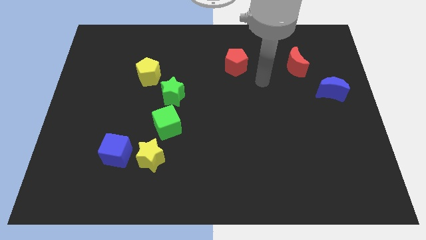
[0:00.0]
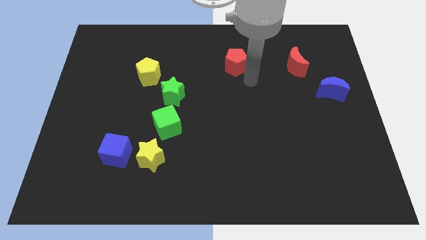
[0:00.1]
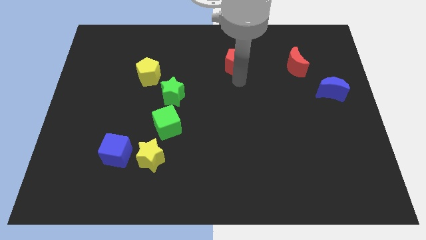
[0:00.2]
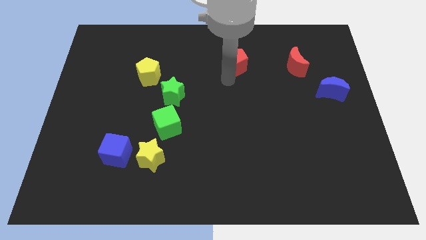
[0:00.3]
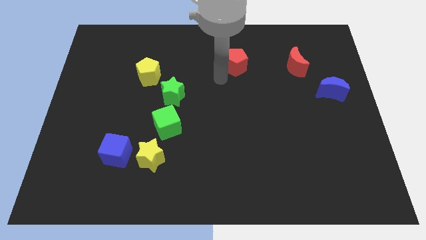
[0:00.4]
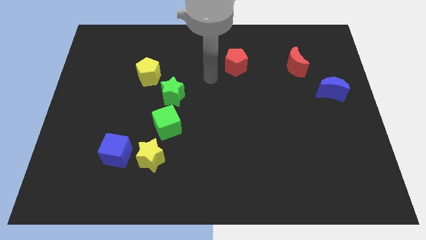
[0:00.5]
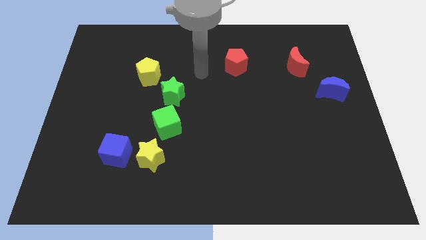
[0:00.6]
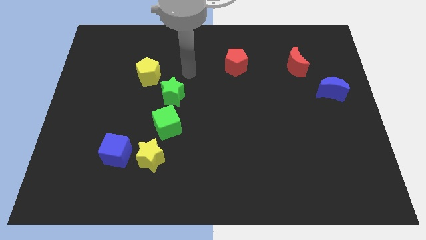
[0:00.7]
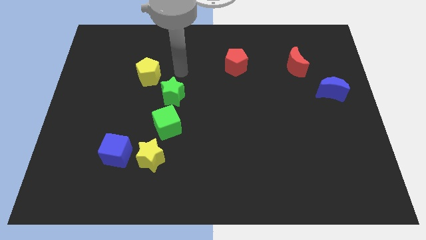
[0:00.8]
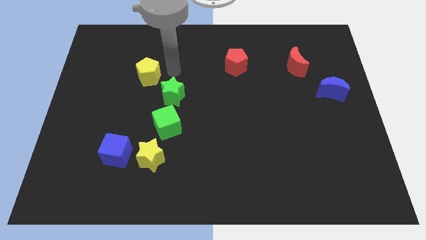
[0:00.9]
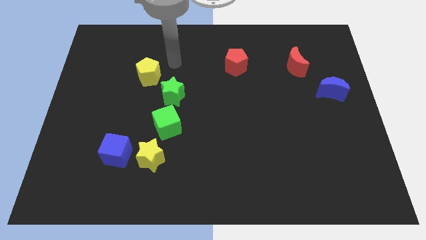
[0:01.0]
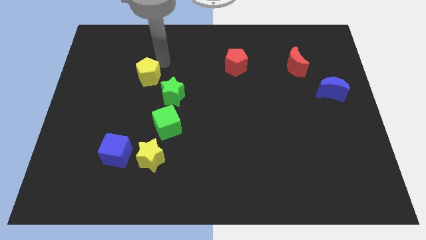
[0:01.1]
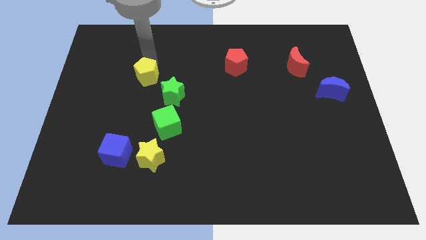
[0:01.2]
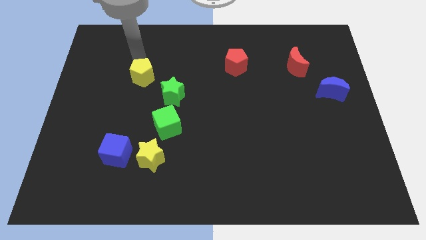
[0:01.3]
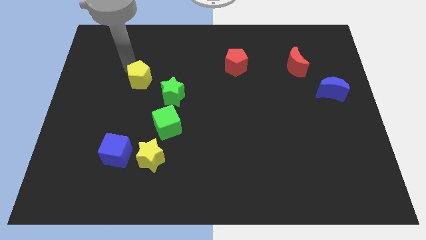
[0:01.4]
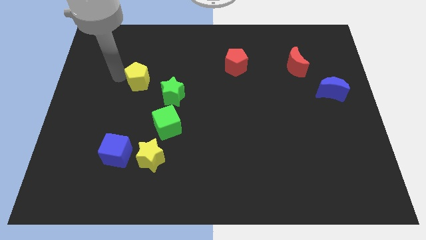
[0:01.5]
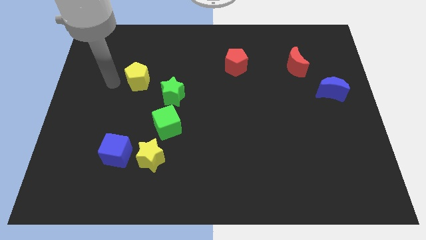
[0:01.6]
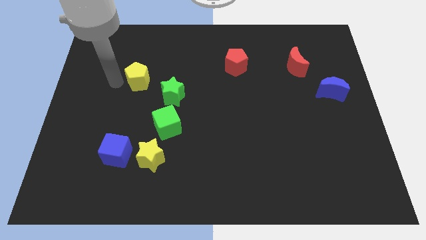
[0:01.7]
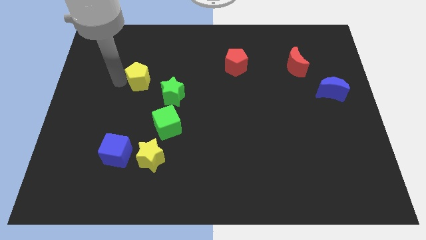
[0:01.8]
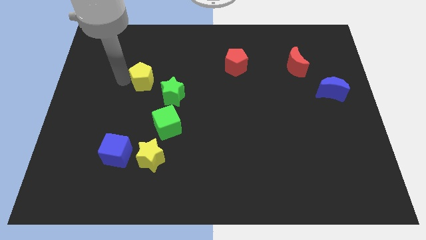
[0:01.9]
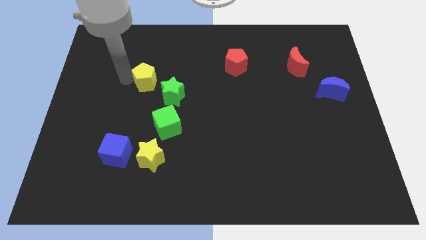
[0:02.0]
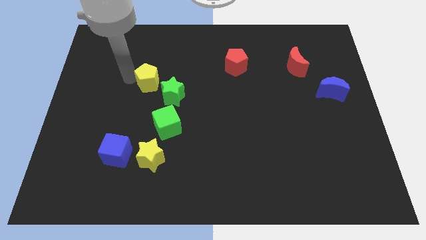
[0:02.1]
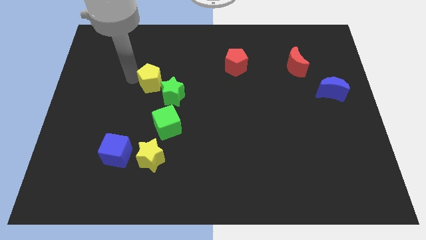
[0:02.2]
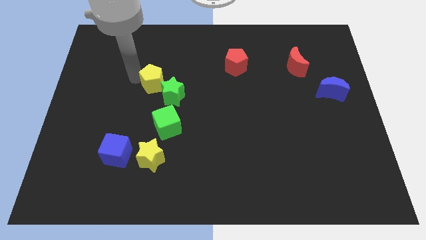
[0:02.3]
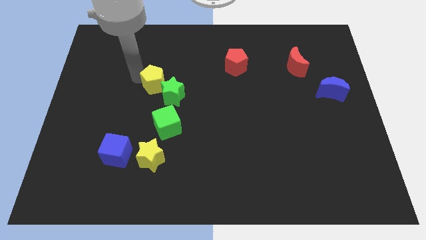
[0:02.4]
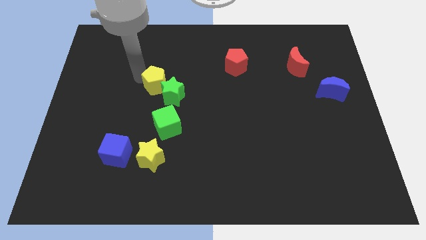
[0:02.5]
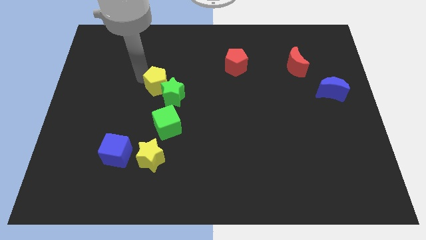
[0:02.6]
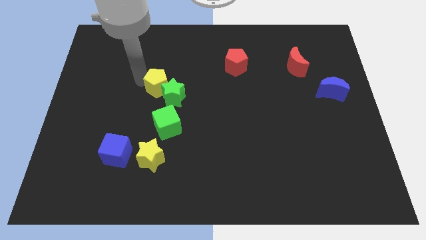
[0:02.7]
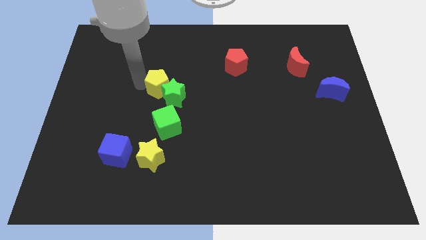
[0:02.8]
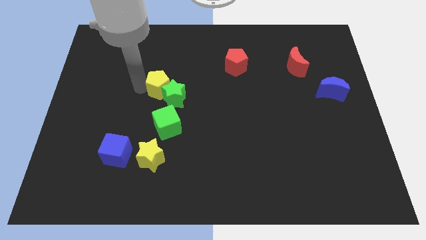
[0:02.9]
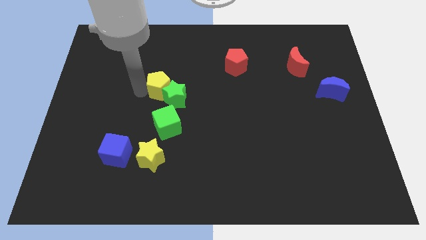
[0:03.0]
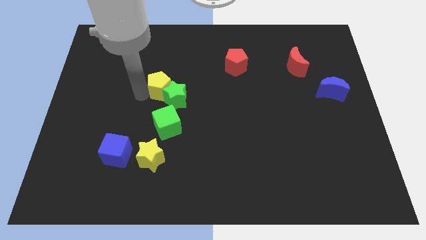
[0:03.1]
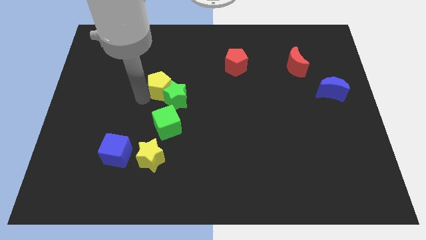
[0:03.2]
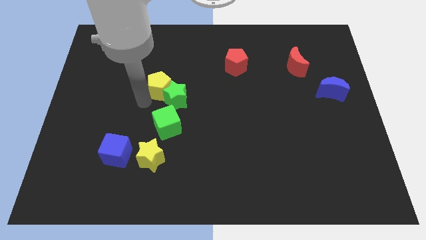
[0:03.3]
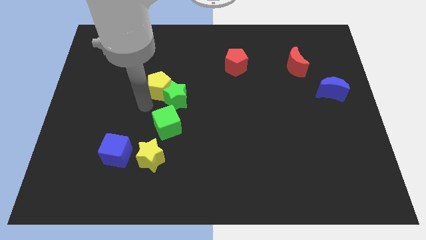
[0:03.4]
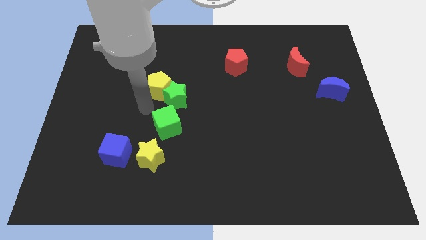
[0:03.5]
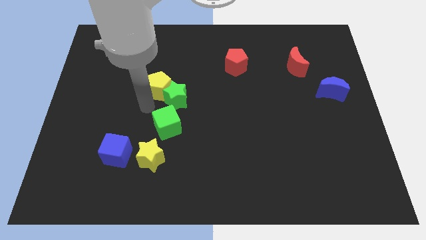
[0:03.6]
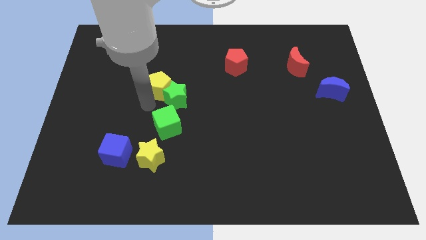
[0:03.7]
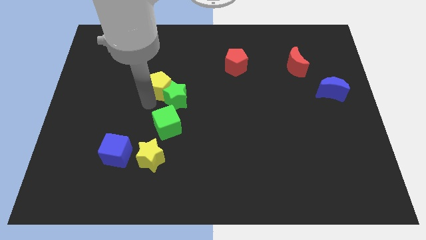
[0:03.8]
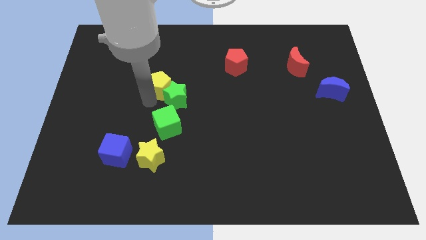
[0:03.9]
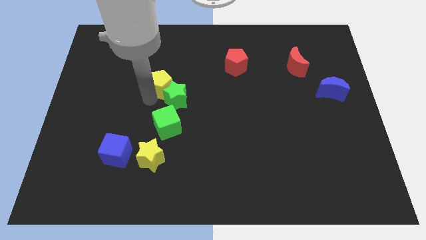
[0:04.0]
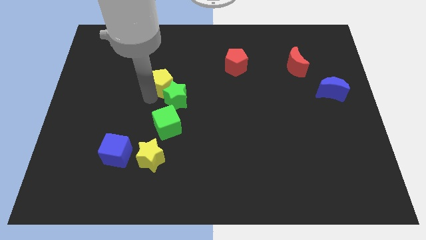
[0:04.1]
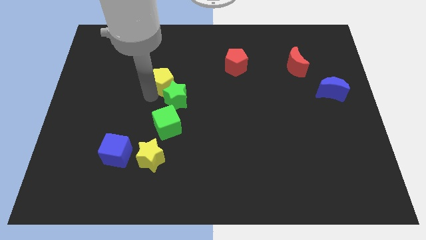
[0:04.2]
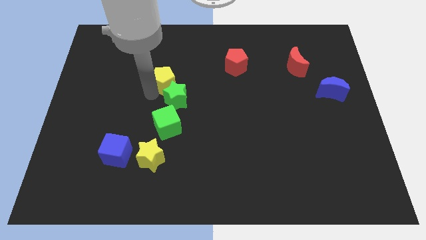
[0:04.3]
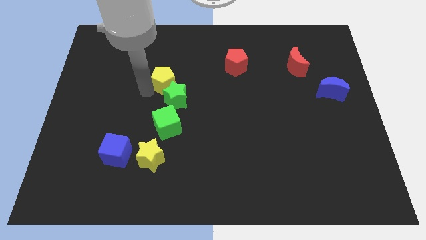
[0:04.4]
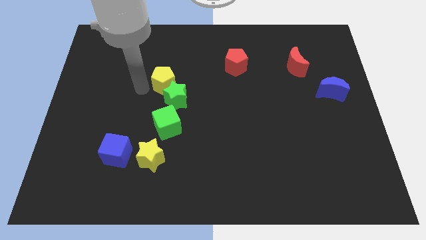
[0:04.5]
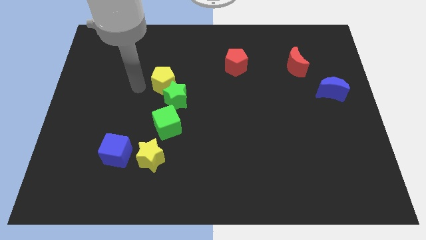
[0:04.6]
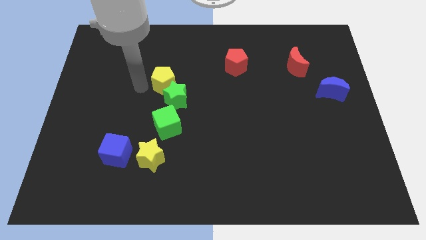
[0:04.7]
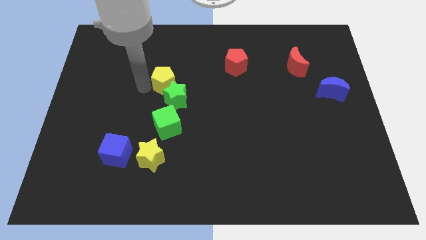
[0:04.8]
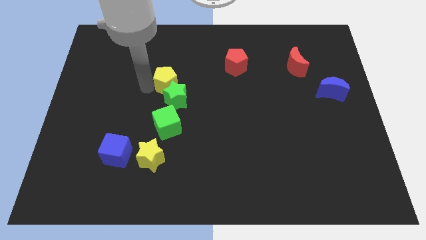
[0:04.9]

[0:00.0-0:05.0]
put the yellow pentagon to the middle

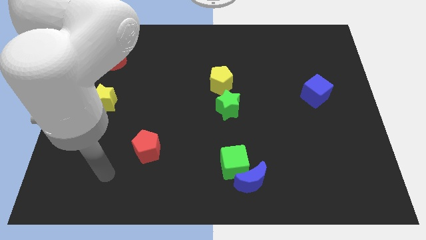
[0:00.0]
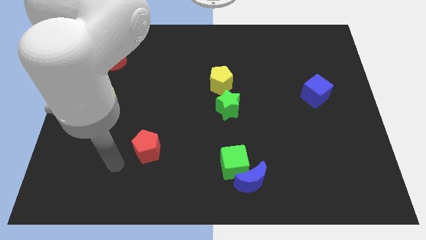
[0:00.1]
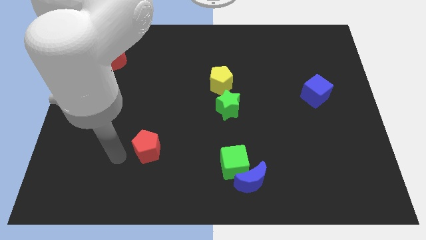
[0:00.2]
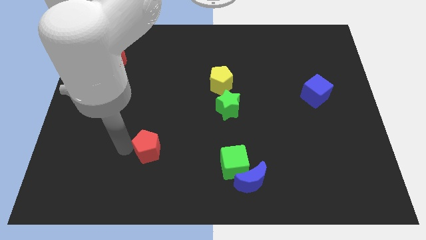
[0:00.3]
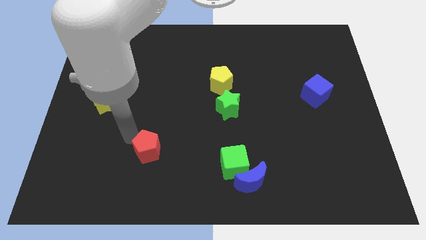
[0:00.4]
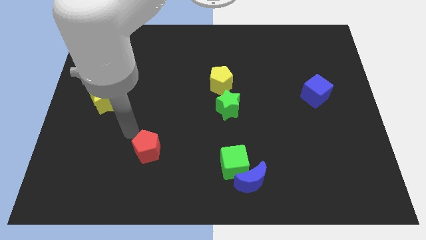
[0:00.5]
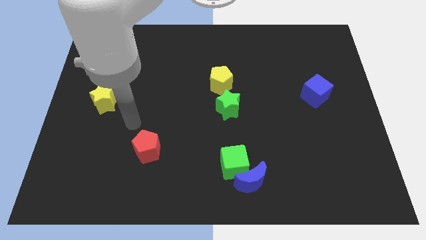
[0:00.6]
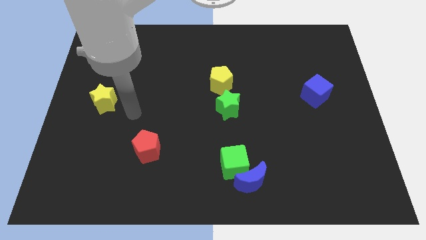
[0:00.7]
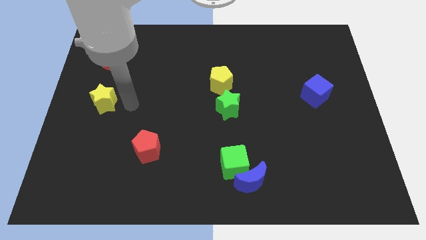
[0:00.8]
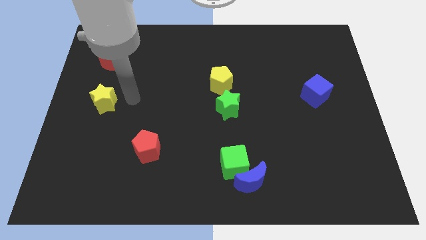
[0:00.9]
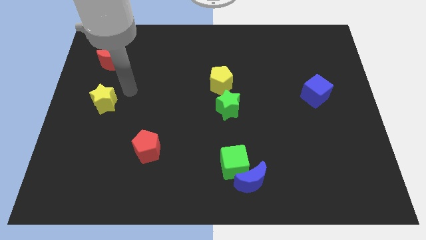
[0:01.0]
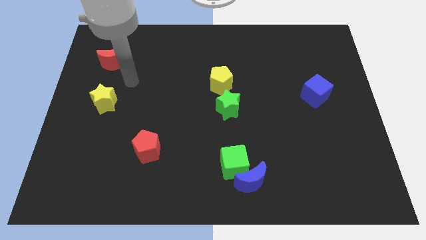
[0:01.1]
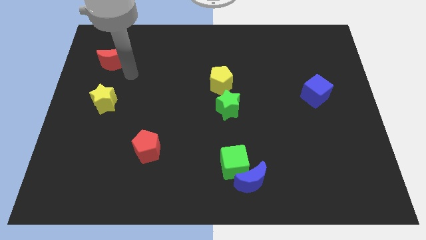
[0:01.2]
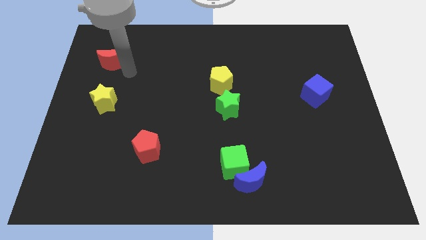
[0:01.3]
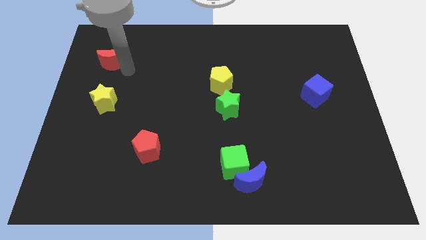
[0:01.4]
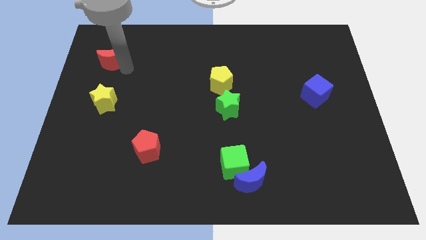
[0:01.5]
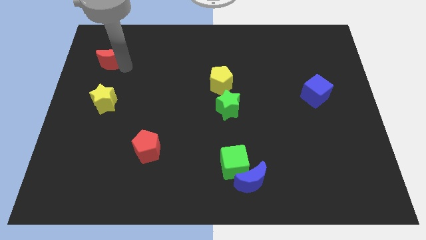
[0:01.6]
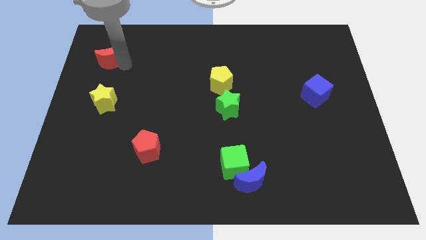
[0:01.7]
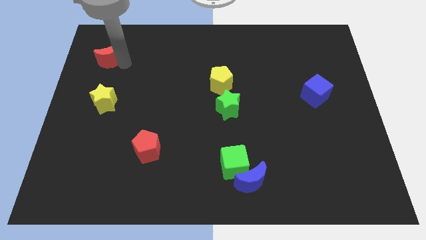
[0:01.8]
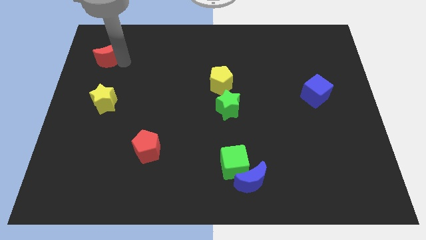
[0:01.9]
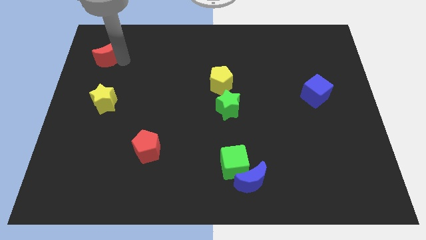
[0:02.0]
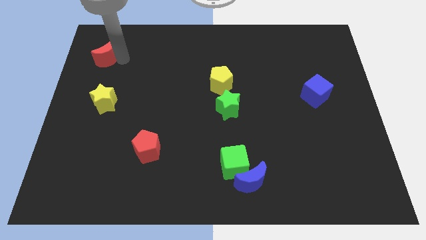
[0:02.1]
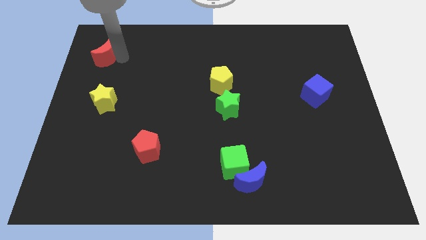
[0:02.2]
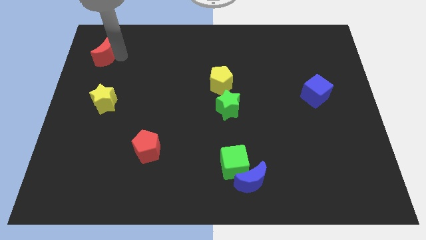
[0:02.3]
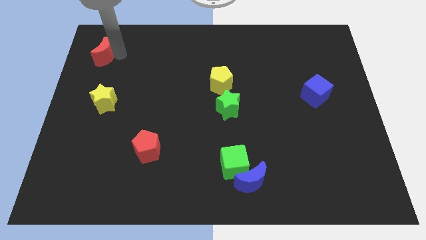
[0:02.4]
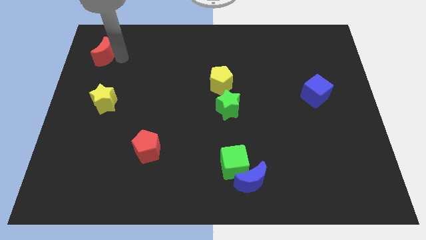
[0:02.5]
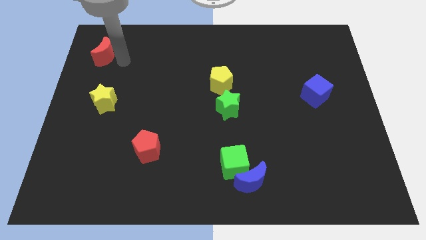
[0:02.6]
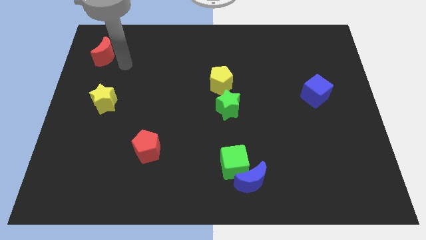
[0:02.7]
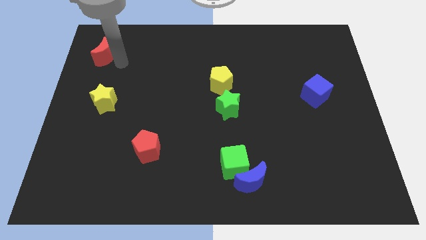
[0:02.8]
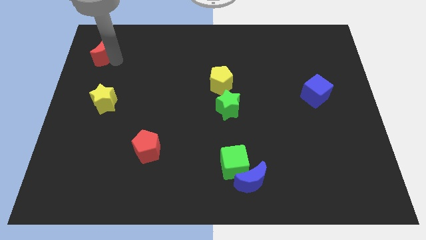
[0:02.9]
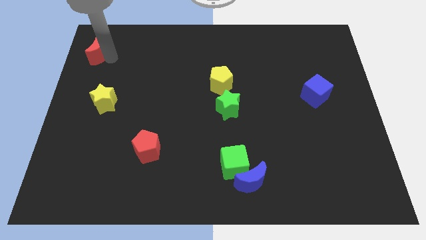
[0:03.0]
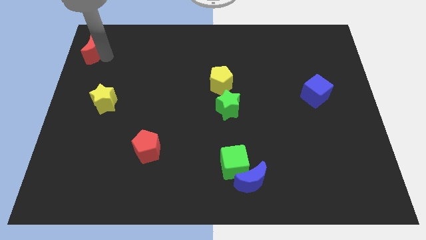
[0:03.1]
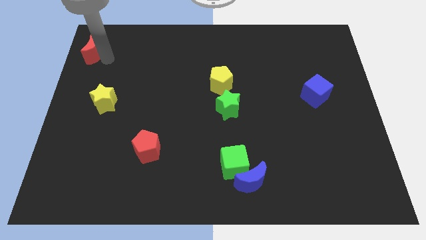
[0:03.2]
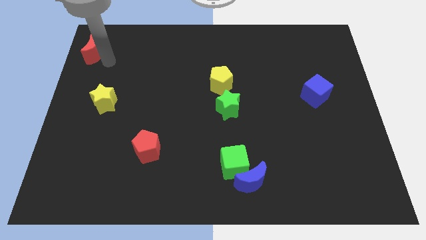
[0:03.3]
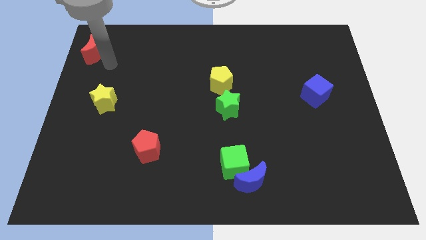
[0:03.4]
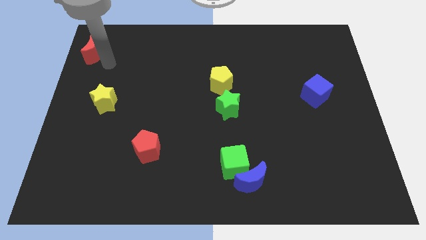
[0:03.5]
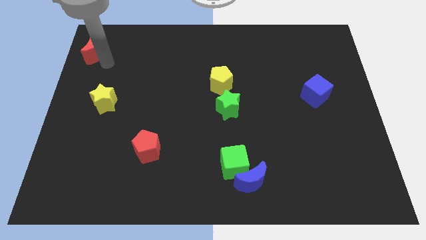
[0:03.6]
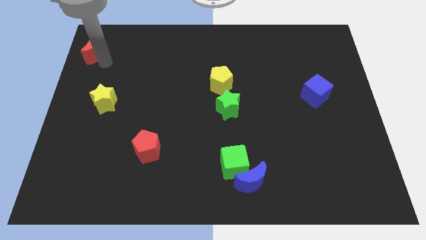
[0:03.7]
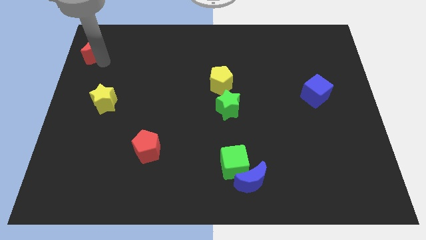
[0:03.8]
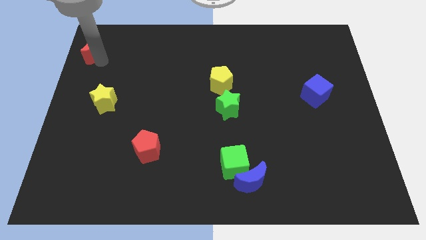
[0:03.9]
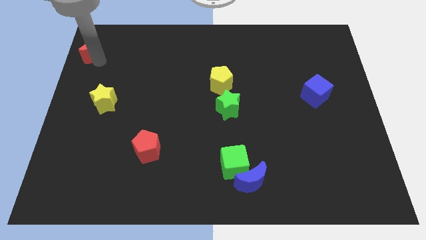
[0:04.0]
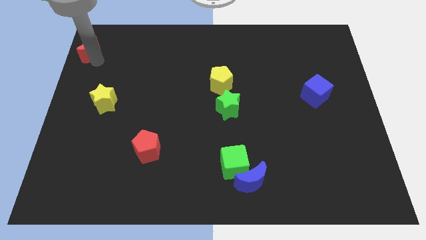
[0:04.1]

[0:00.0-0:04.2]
move the red moon to the upper left corner
